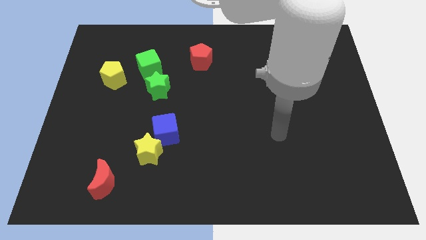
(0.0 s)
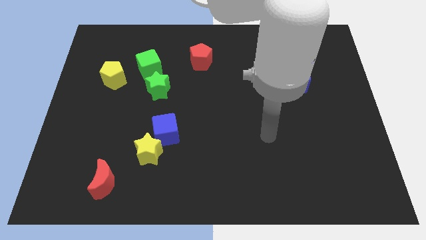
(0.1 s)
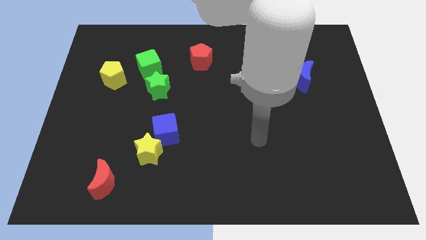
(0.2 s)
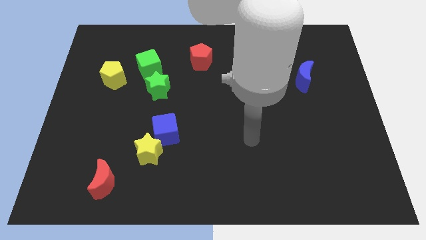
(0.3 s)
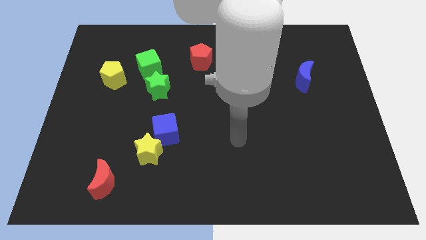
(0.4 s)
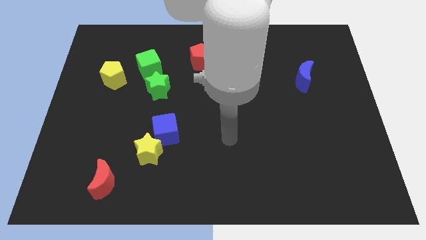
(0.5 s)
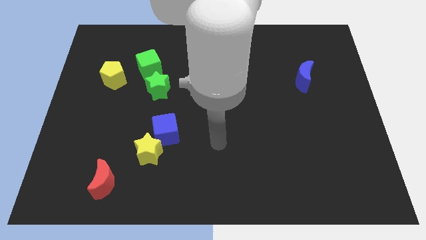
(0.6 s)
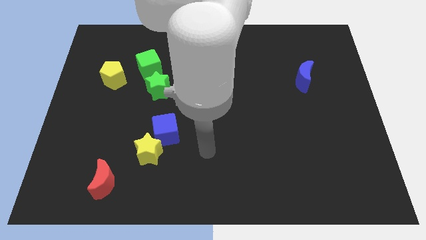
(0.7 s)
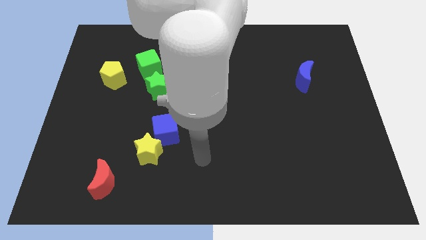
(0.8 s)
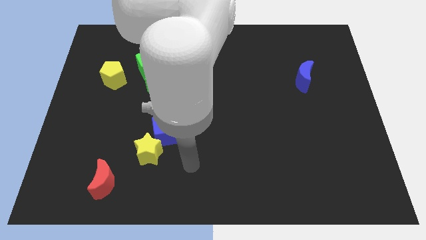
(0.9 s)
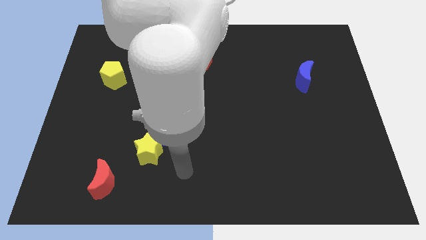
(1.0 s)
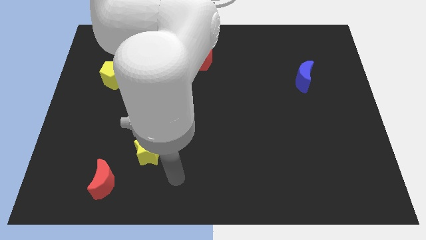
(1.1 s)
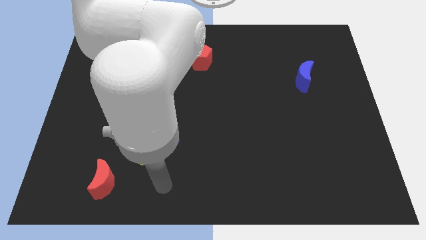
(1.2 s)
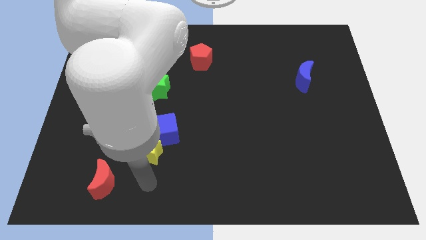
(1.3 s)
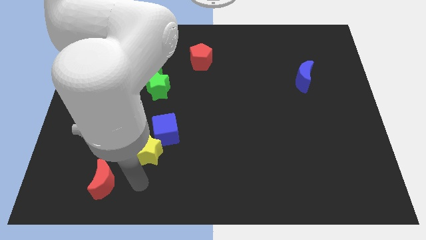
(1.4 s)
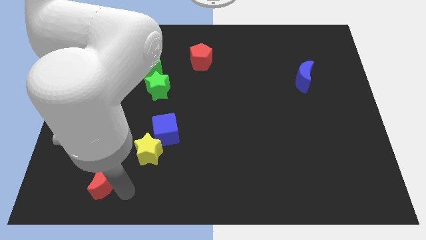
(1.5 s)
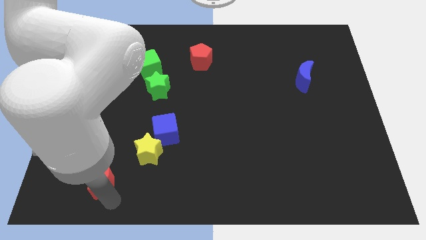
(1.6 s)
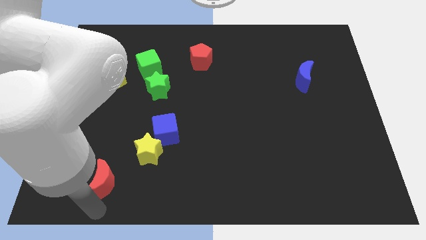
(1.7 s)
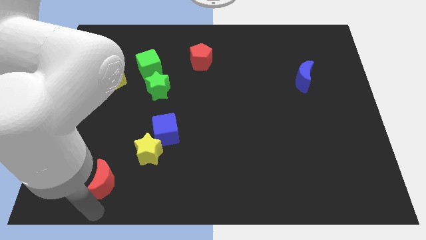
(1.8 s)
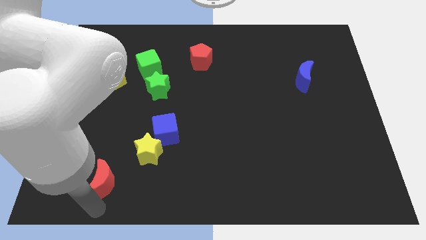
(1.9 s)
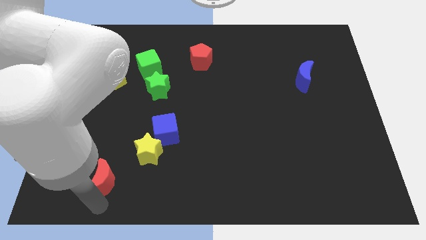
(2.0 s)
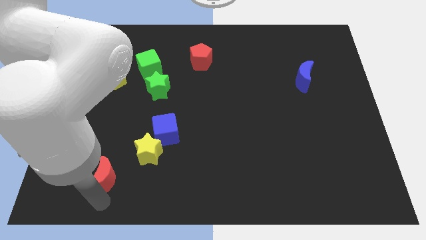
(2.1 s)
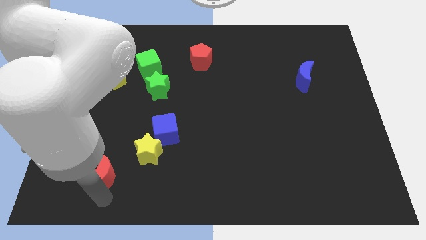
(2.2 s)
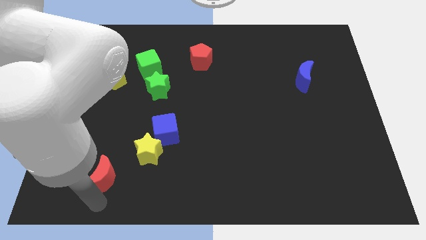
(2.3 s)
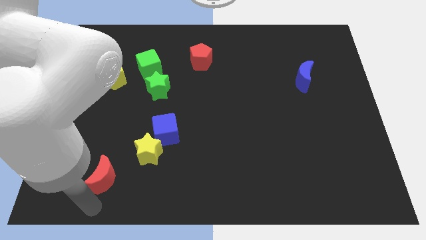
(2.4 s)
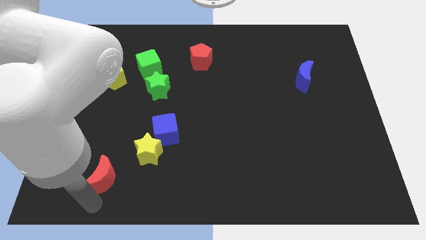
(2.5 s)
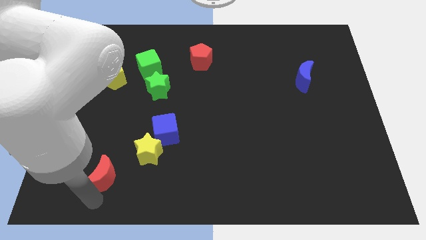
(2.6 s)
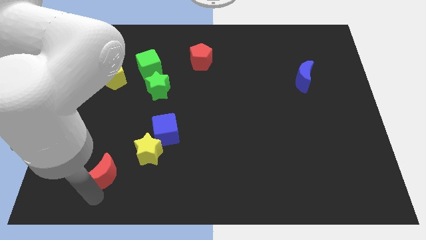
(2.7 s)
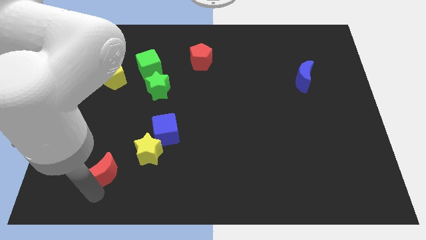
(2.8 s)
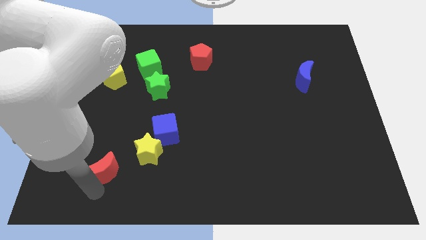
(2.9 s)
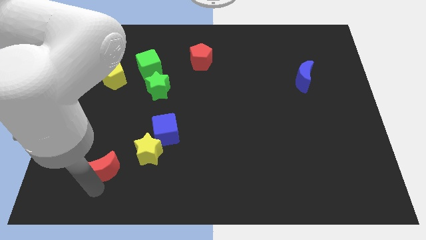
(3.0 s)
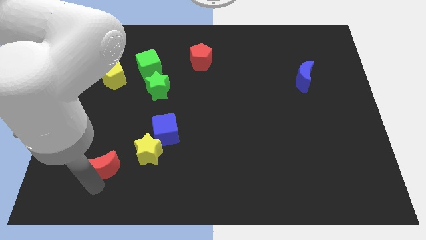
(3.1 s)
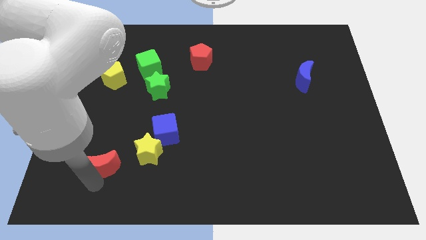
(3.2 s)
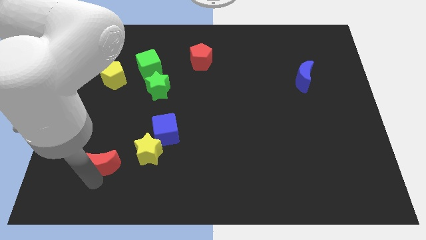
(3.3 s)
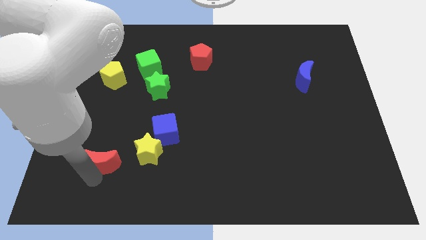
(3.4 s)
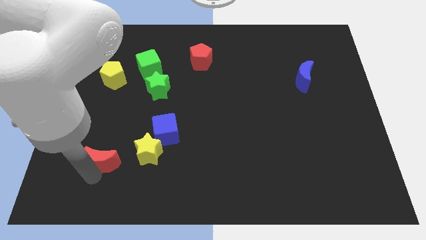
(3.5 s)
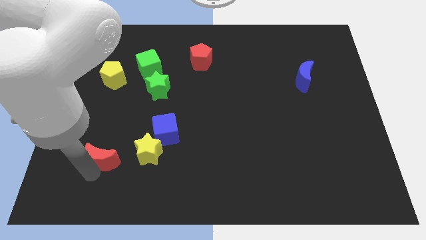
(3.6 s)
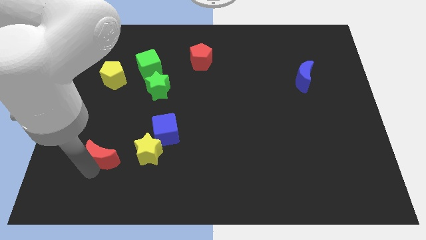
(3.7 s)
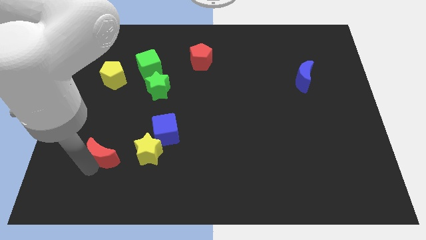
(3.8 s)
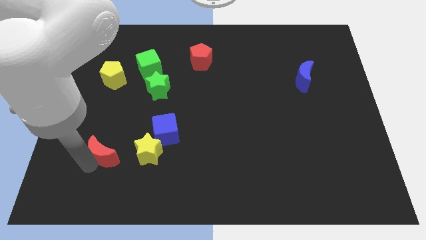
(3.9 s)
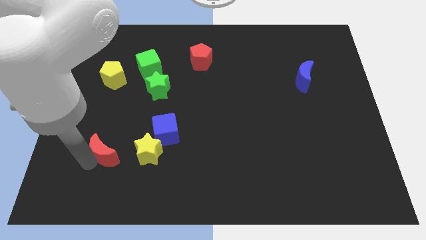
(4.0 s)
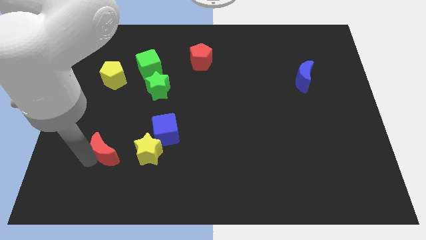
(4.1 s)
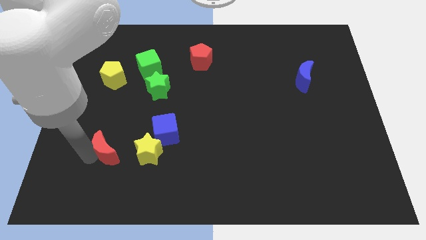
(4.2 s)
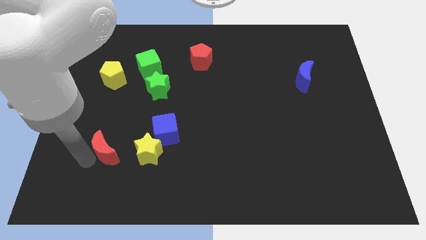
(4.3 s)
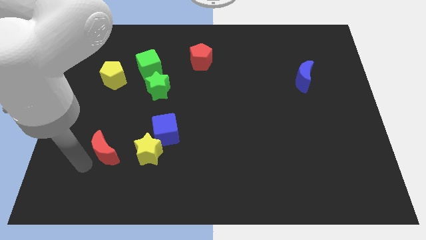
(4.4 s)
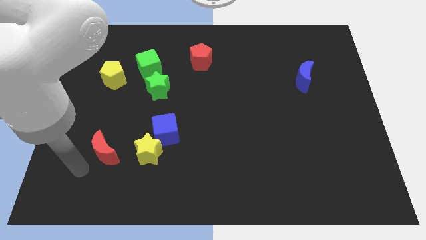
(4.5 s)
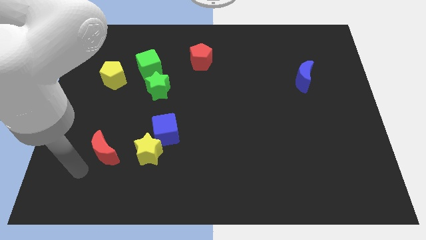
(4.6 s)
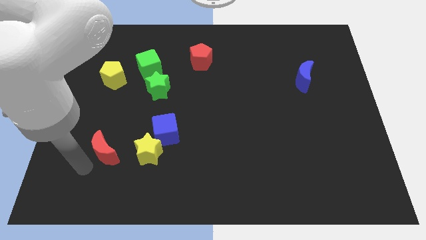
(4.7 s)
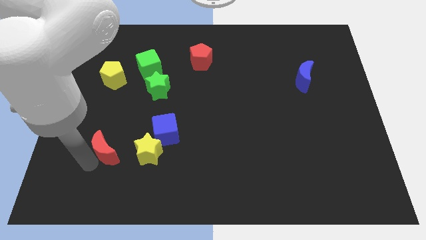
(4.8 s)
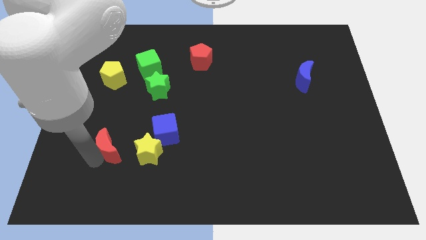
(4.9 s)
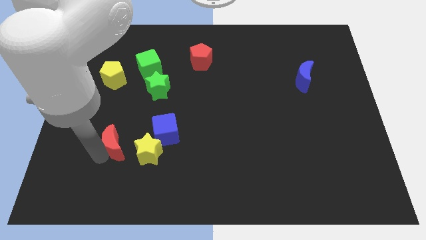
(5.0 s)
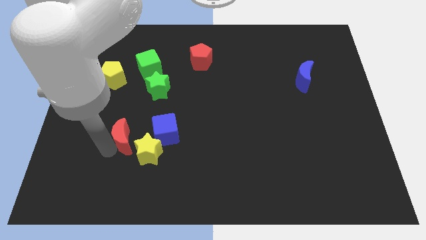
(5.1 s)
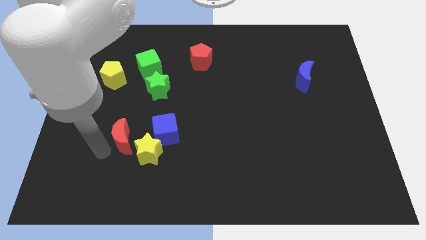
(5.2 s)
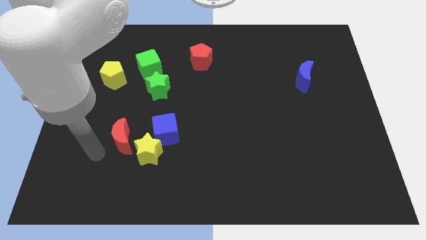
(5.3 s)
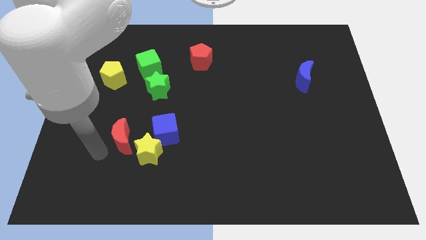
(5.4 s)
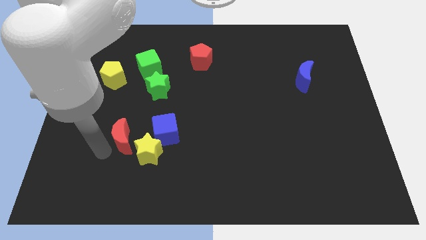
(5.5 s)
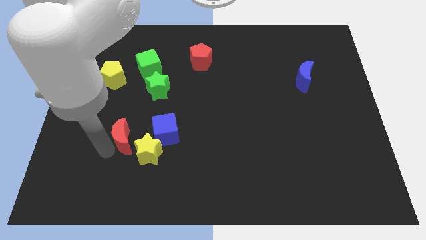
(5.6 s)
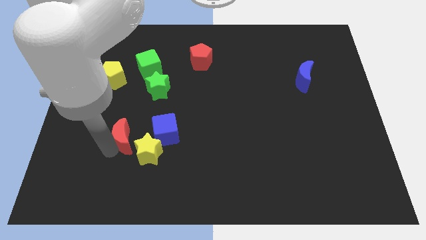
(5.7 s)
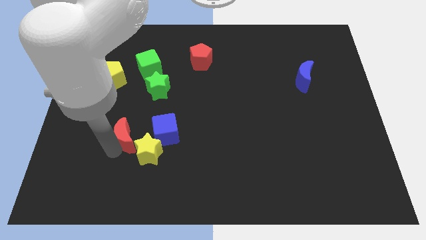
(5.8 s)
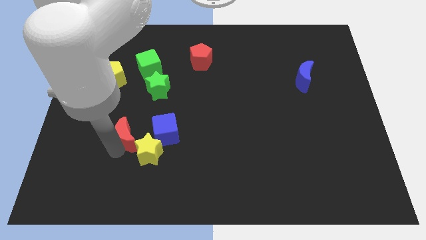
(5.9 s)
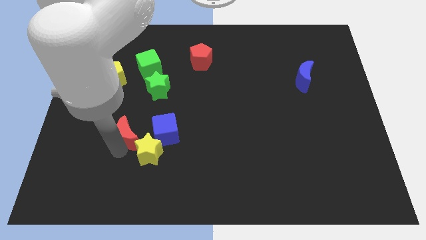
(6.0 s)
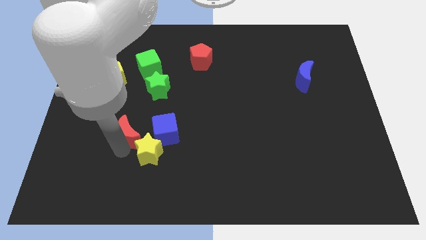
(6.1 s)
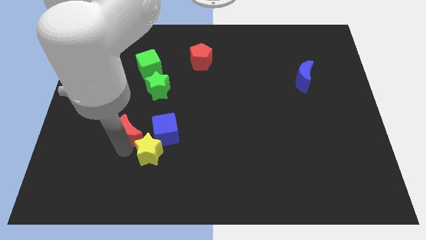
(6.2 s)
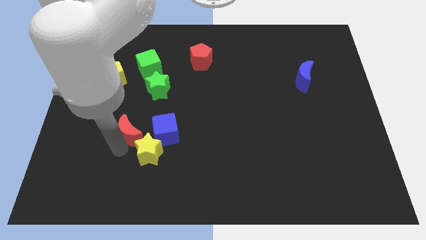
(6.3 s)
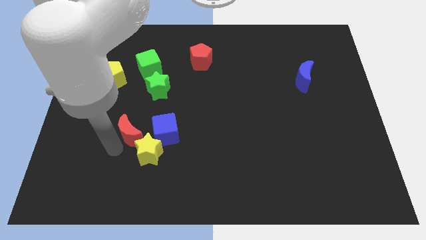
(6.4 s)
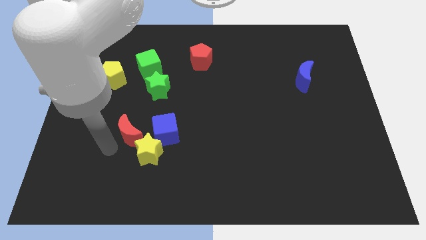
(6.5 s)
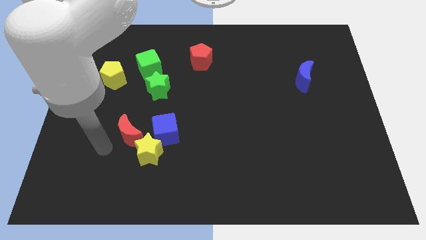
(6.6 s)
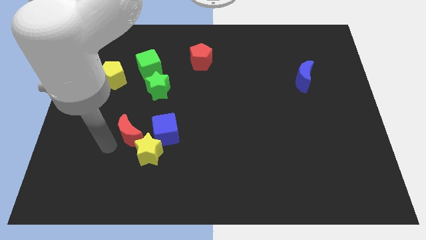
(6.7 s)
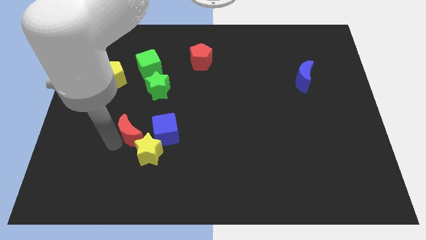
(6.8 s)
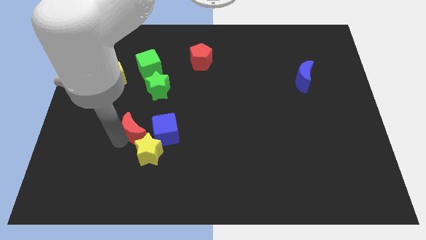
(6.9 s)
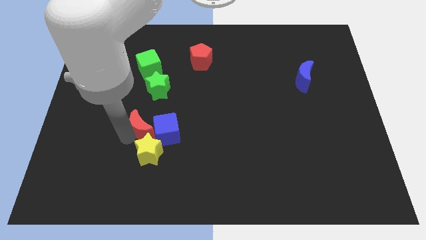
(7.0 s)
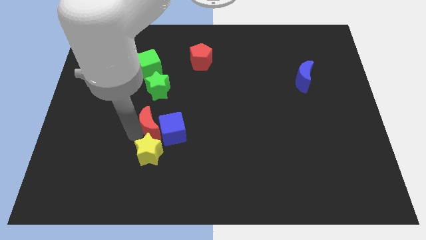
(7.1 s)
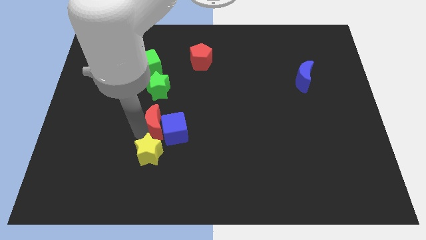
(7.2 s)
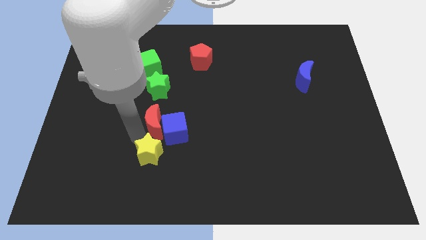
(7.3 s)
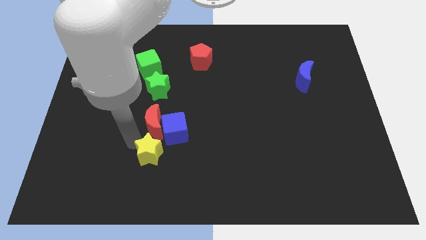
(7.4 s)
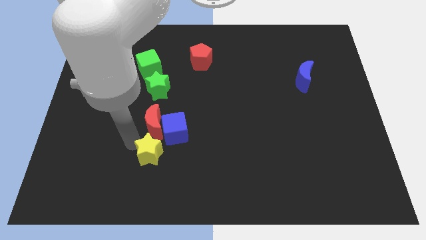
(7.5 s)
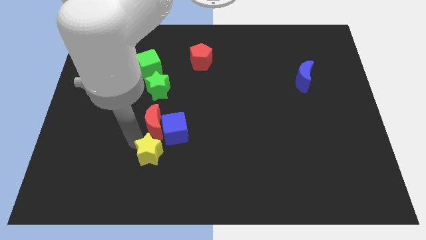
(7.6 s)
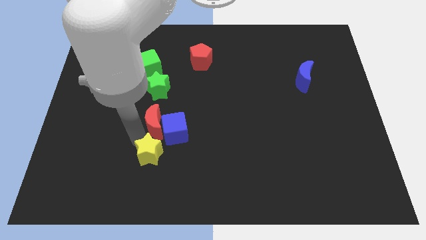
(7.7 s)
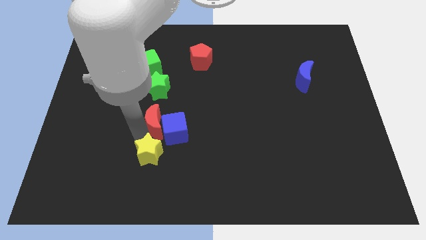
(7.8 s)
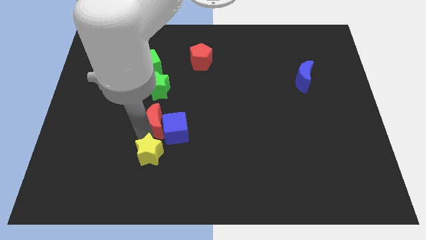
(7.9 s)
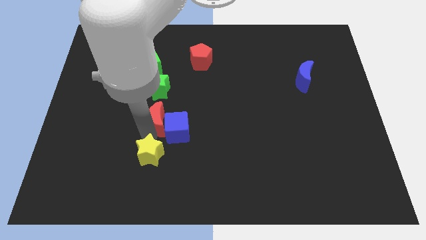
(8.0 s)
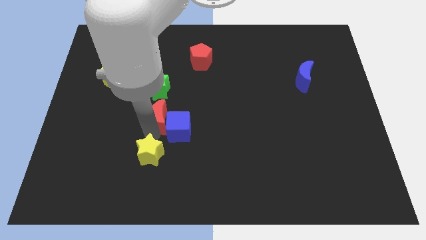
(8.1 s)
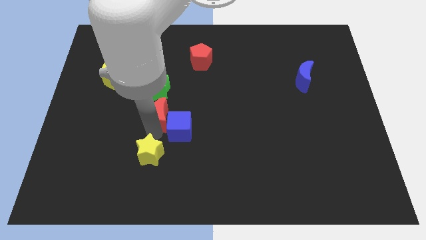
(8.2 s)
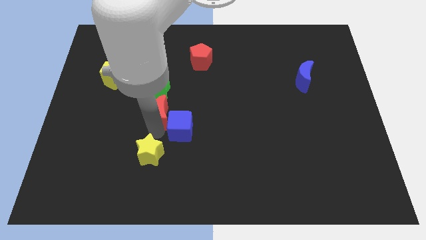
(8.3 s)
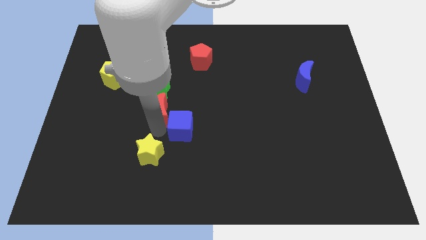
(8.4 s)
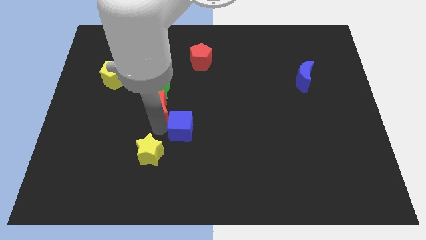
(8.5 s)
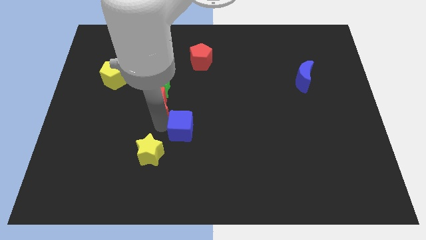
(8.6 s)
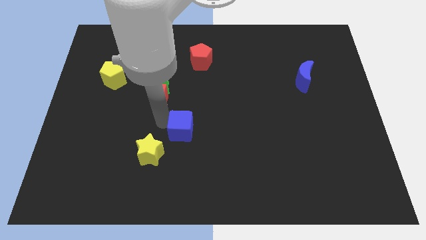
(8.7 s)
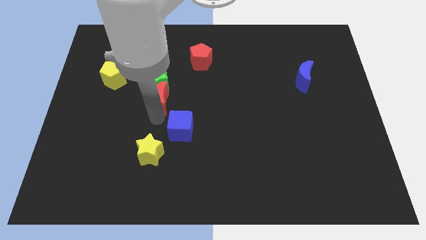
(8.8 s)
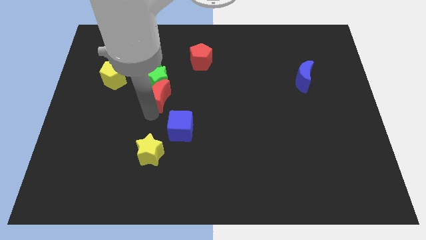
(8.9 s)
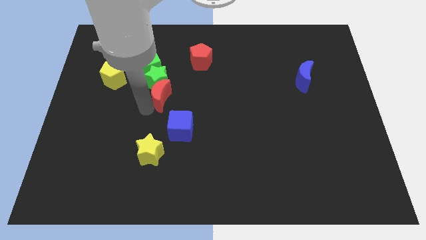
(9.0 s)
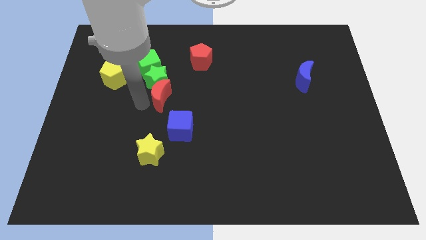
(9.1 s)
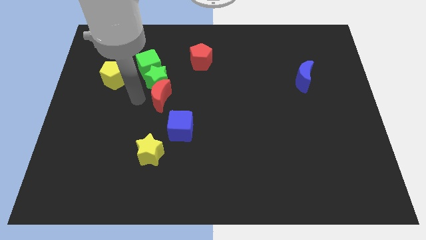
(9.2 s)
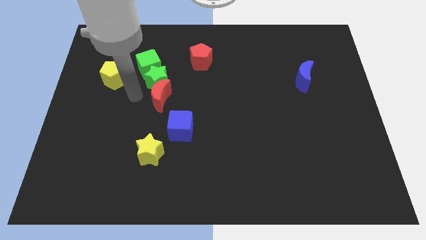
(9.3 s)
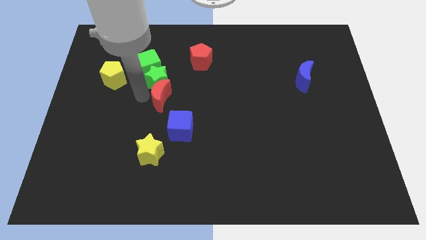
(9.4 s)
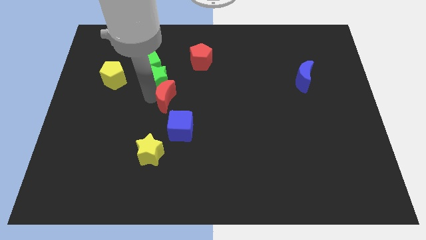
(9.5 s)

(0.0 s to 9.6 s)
push the red moon up and to the right
